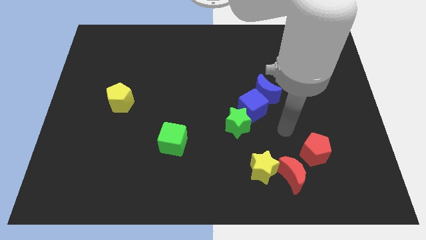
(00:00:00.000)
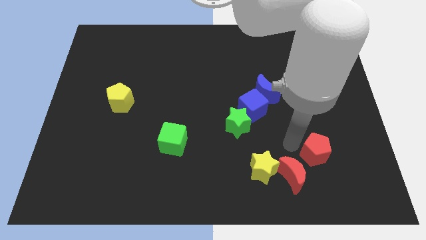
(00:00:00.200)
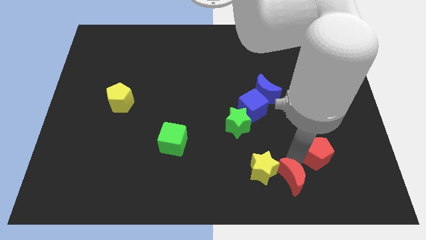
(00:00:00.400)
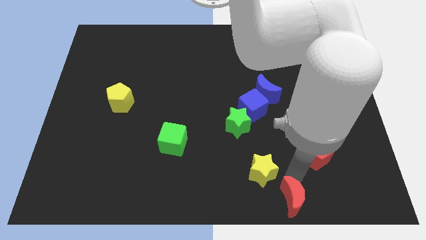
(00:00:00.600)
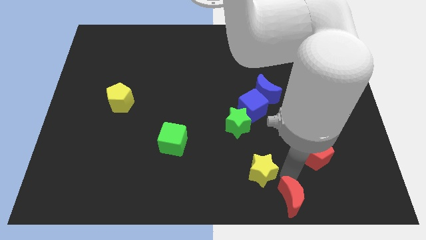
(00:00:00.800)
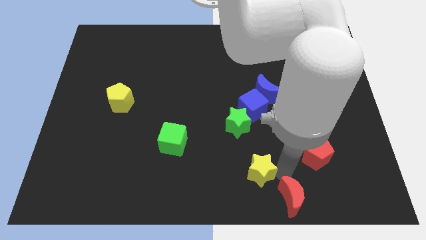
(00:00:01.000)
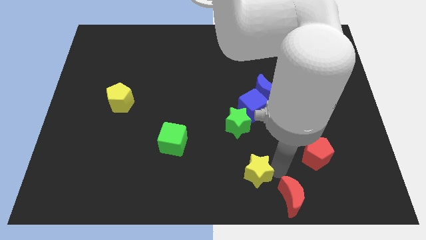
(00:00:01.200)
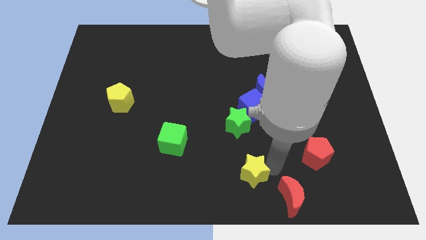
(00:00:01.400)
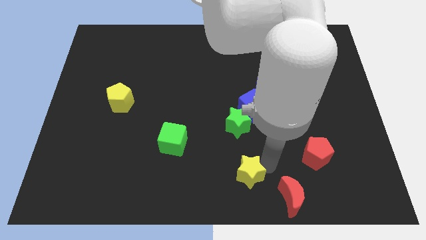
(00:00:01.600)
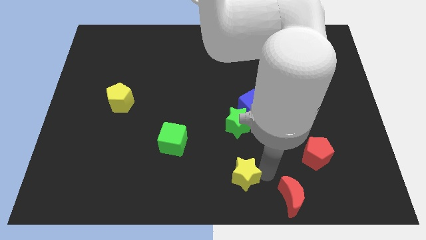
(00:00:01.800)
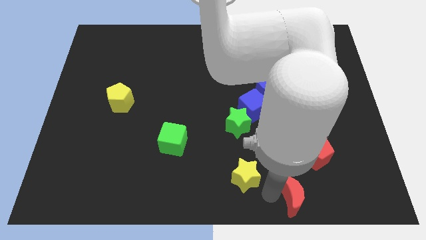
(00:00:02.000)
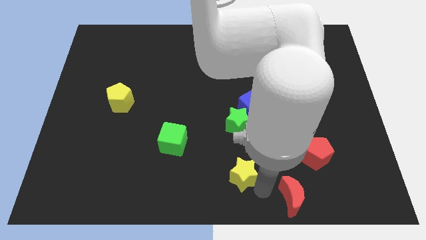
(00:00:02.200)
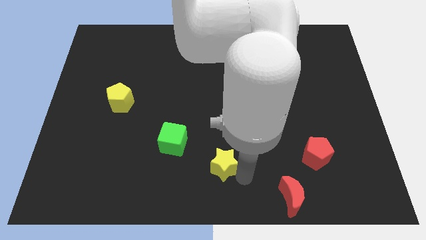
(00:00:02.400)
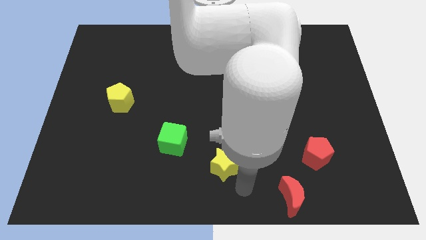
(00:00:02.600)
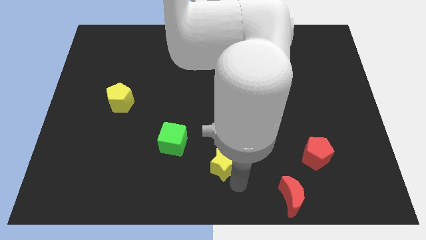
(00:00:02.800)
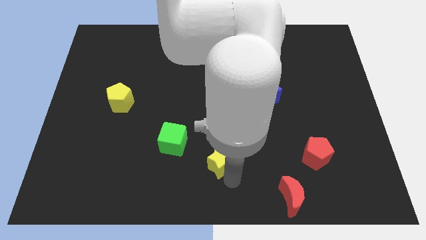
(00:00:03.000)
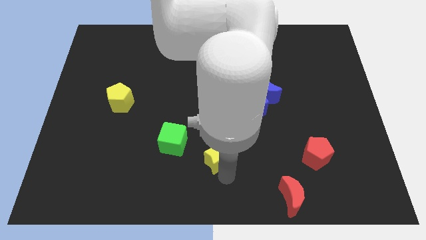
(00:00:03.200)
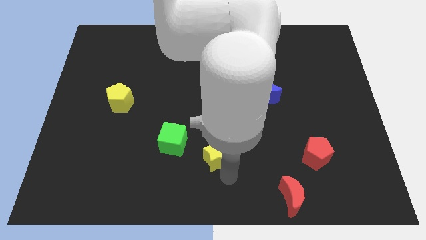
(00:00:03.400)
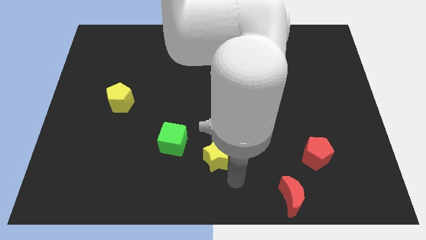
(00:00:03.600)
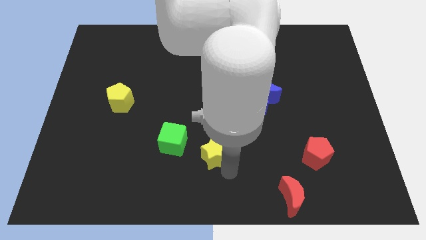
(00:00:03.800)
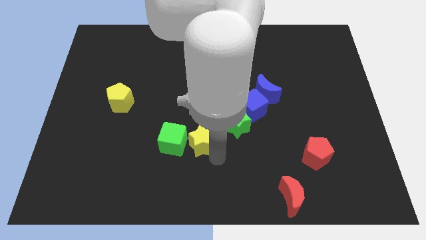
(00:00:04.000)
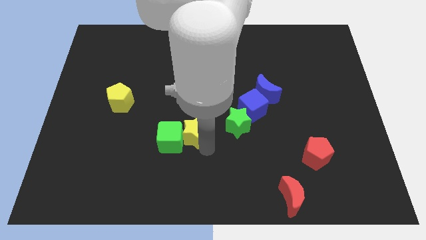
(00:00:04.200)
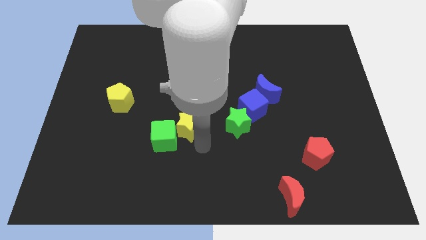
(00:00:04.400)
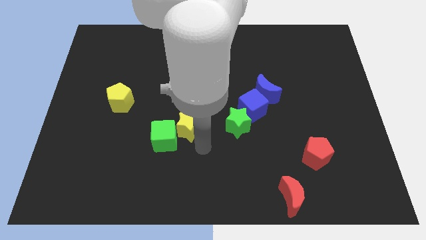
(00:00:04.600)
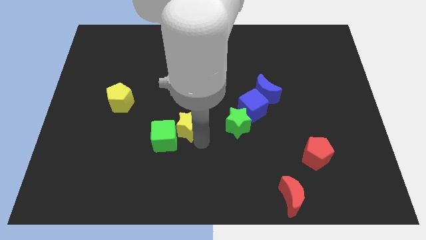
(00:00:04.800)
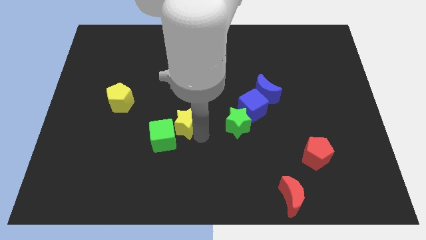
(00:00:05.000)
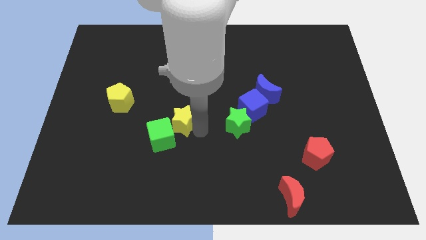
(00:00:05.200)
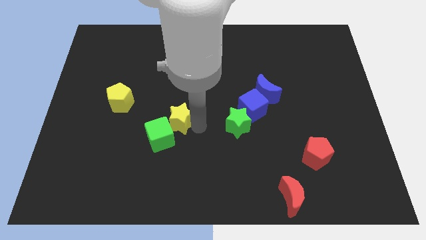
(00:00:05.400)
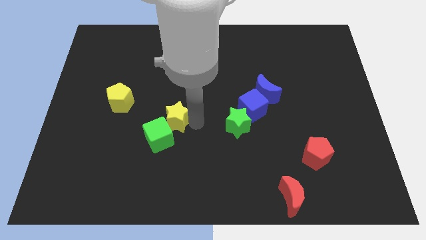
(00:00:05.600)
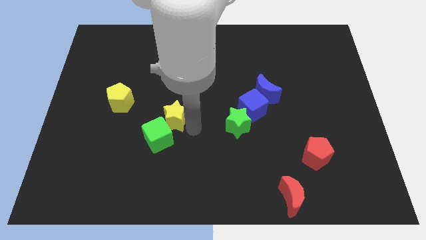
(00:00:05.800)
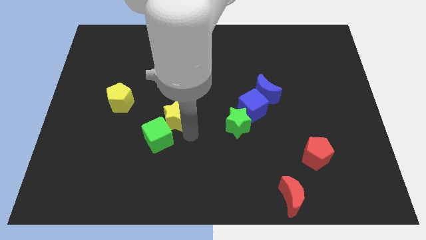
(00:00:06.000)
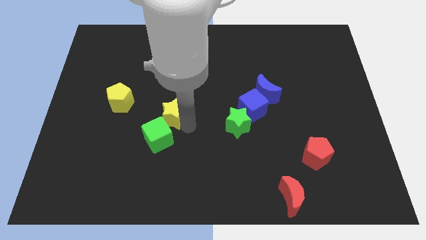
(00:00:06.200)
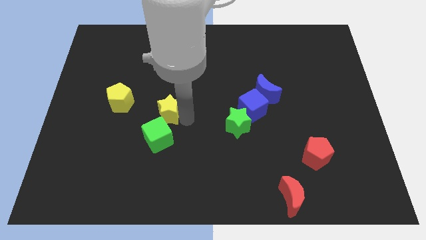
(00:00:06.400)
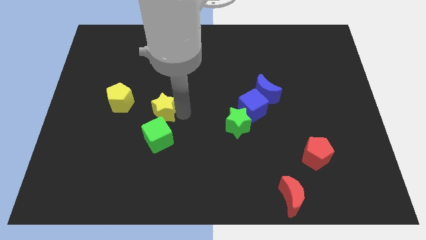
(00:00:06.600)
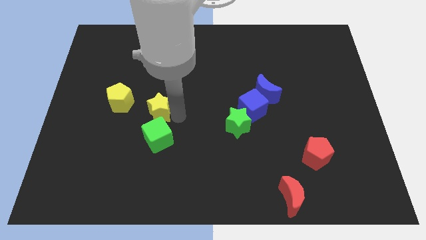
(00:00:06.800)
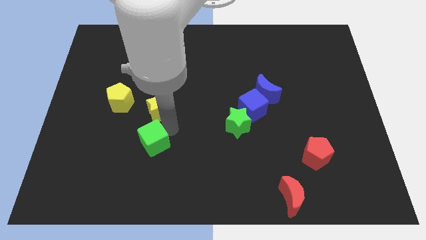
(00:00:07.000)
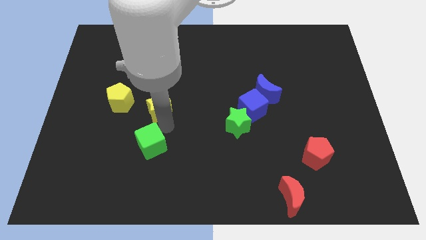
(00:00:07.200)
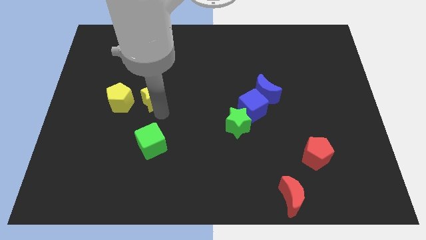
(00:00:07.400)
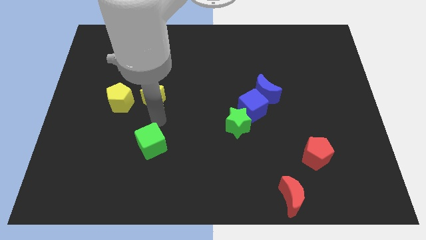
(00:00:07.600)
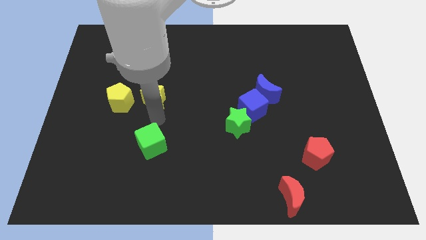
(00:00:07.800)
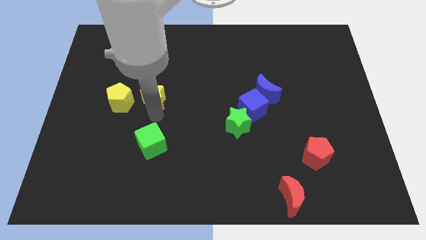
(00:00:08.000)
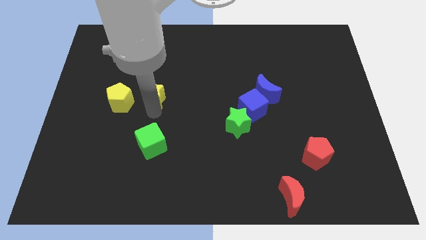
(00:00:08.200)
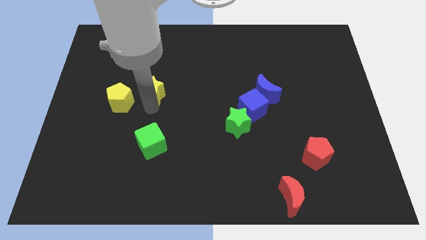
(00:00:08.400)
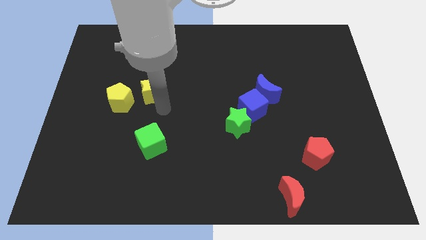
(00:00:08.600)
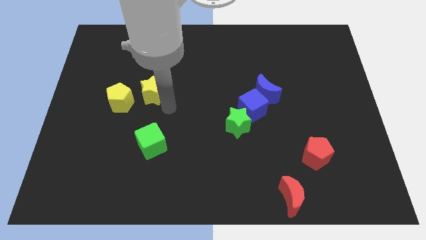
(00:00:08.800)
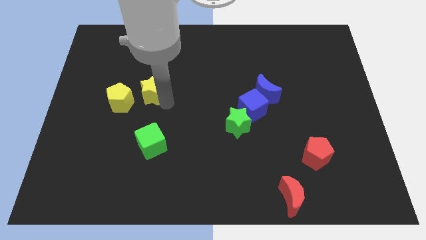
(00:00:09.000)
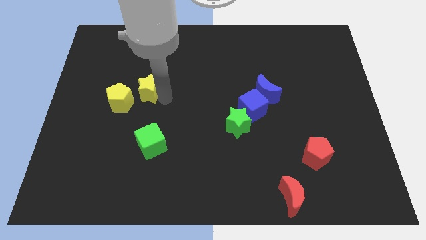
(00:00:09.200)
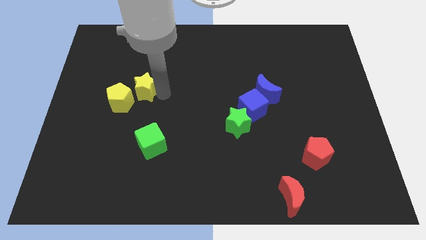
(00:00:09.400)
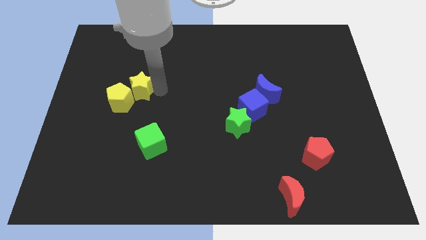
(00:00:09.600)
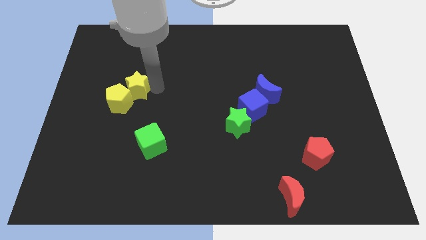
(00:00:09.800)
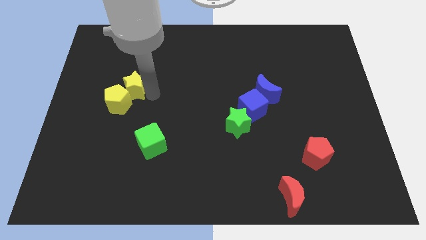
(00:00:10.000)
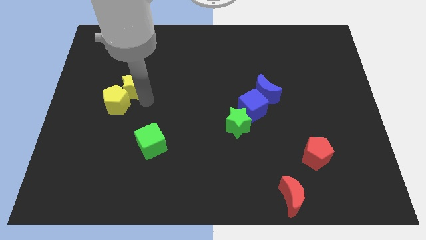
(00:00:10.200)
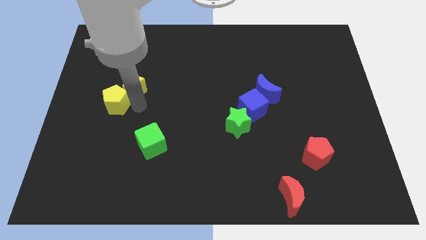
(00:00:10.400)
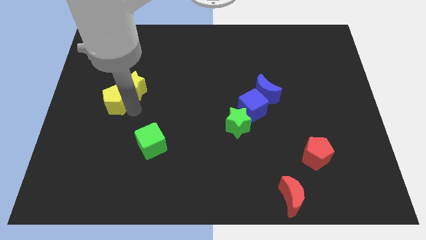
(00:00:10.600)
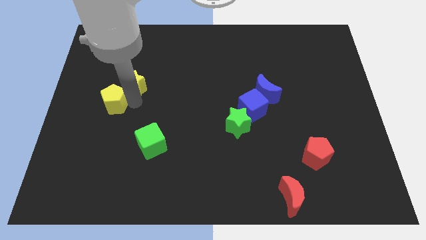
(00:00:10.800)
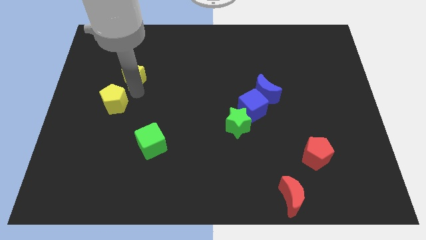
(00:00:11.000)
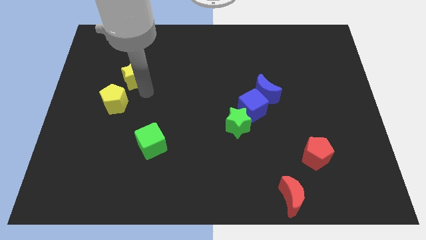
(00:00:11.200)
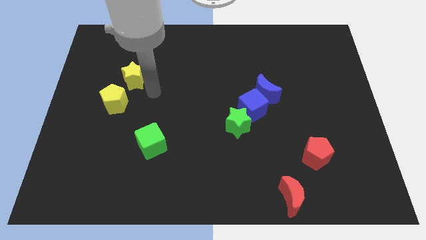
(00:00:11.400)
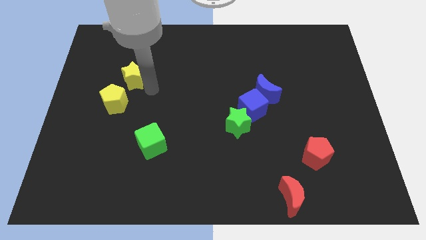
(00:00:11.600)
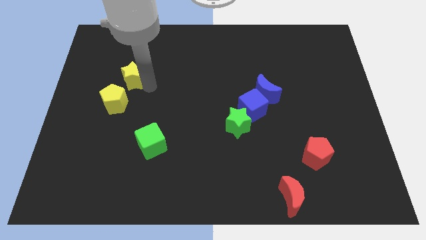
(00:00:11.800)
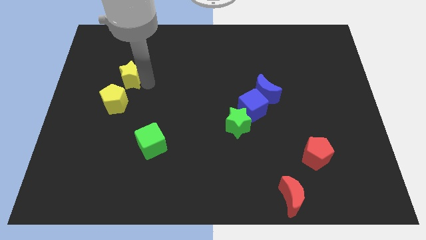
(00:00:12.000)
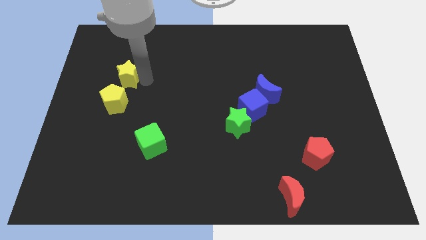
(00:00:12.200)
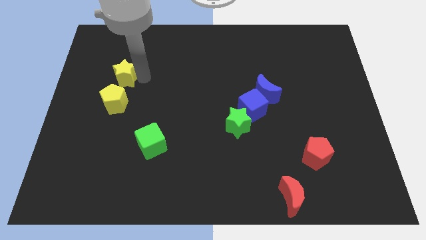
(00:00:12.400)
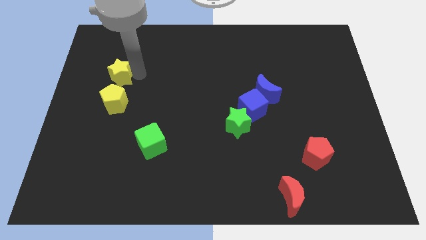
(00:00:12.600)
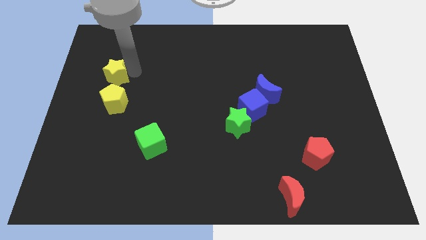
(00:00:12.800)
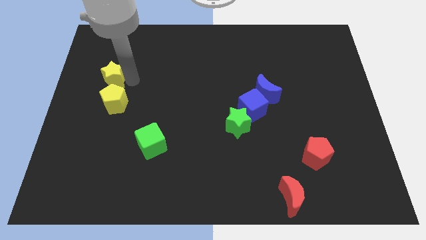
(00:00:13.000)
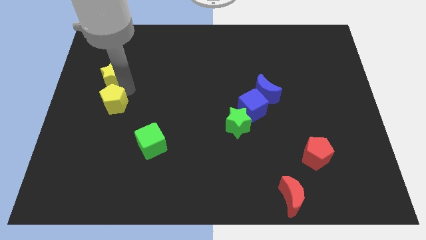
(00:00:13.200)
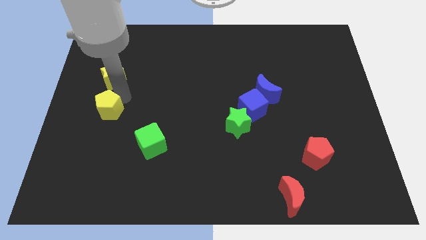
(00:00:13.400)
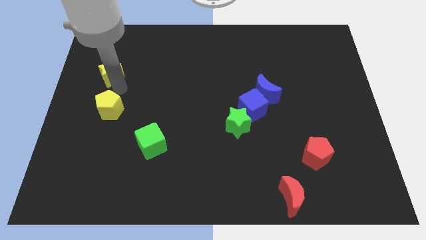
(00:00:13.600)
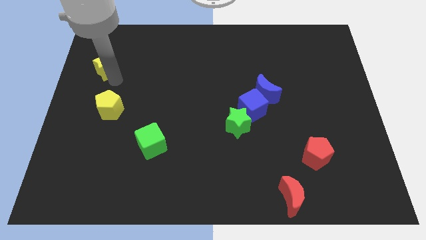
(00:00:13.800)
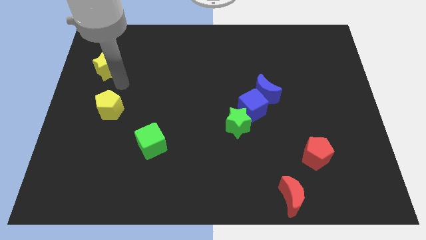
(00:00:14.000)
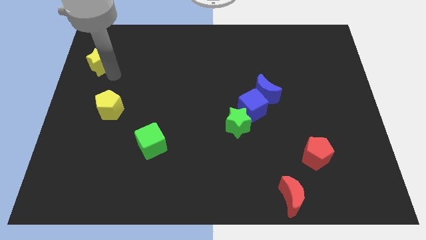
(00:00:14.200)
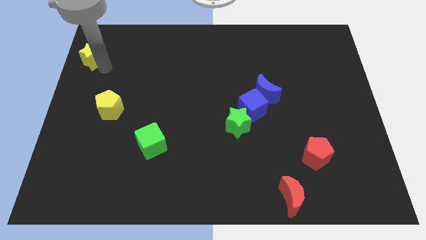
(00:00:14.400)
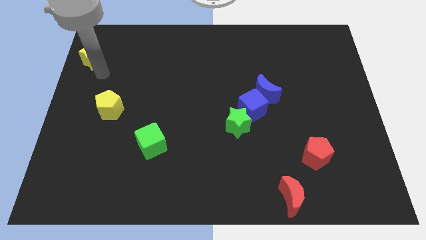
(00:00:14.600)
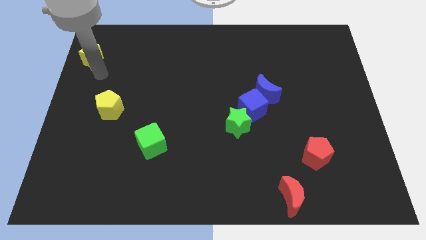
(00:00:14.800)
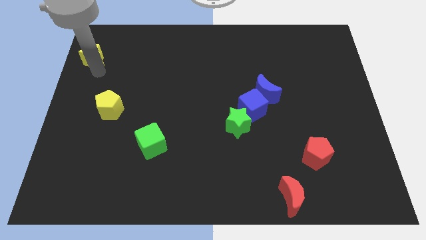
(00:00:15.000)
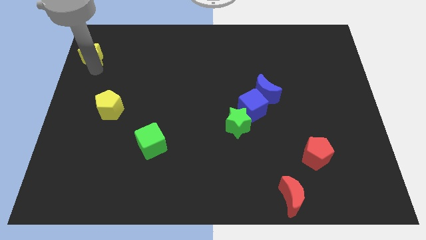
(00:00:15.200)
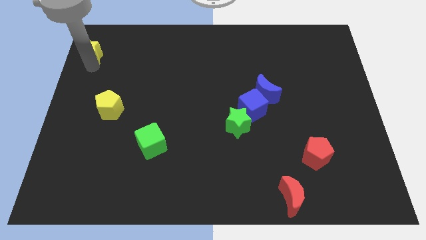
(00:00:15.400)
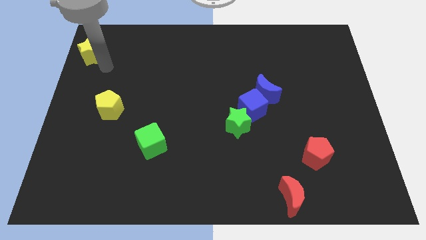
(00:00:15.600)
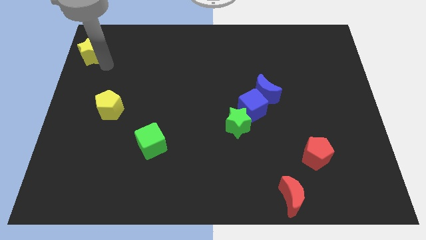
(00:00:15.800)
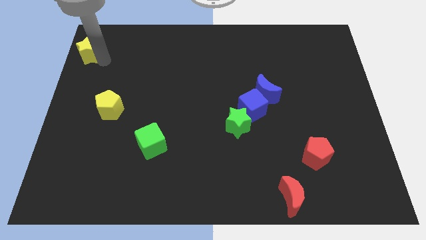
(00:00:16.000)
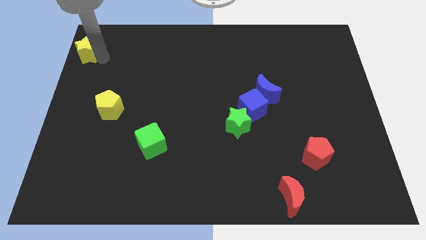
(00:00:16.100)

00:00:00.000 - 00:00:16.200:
move the yellow star to the top left corner
